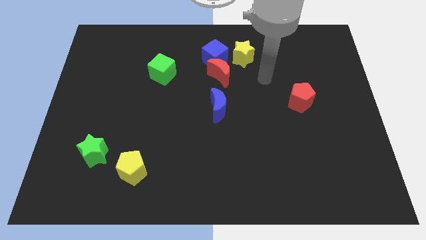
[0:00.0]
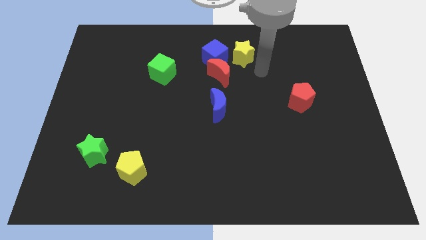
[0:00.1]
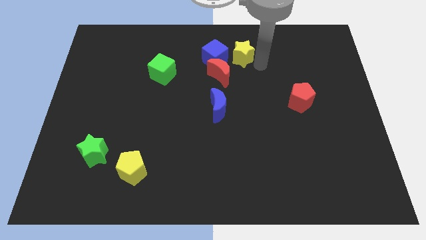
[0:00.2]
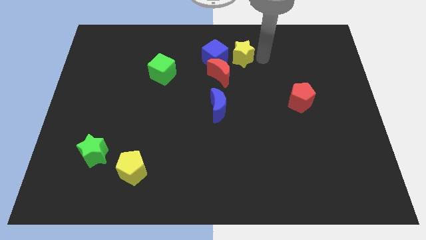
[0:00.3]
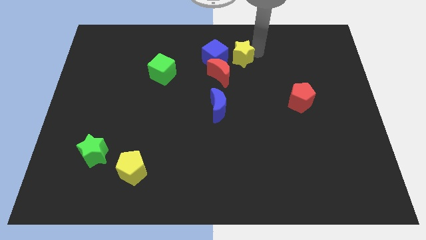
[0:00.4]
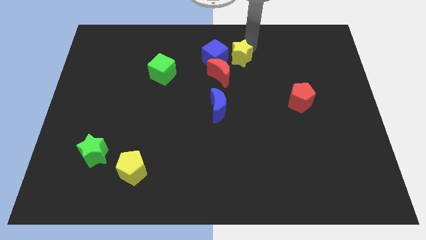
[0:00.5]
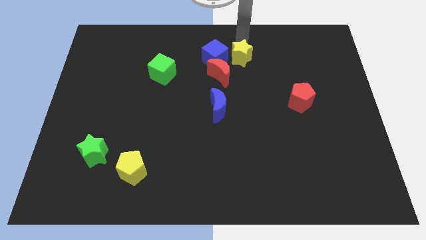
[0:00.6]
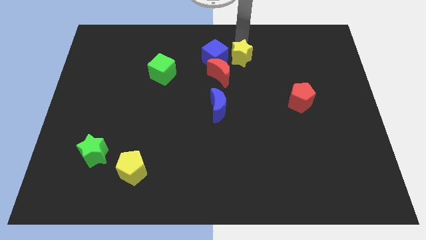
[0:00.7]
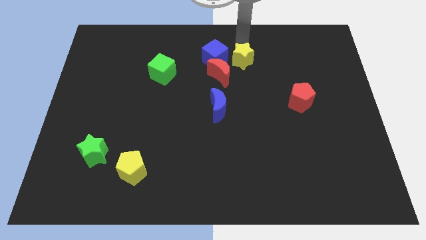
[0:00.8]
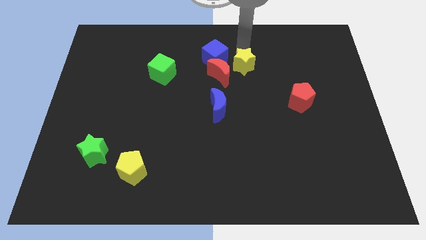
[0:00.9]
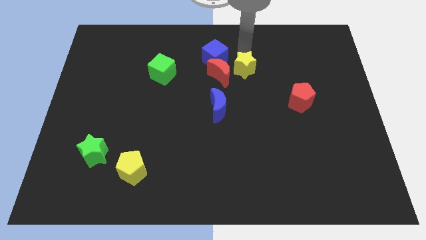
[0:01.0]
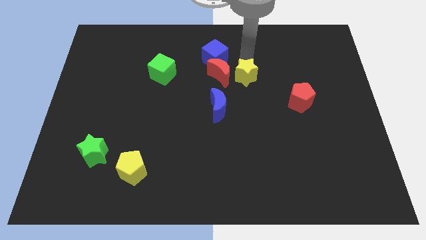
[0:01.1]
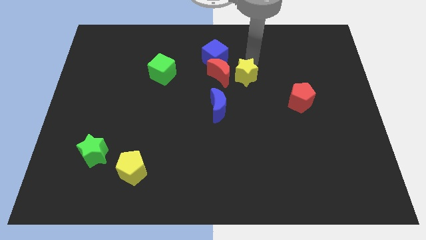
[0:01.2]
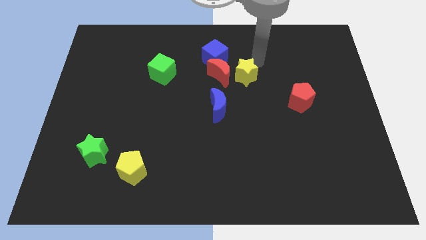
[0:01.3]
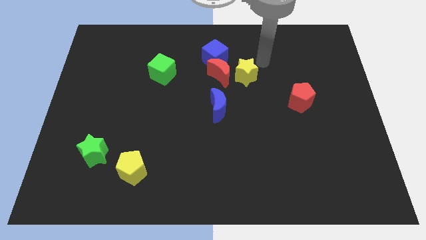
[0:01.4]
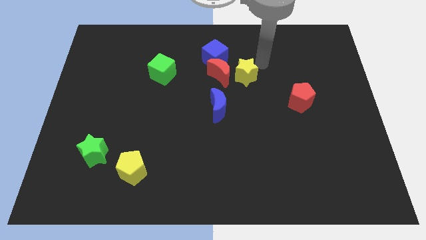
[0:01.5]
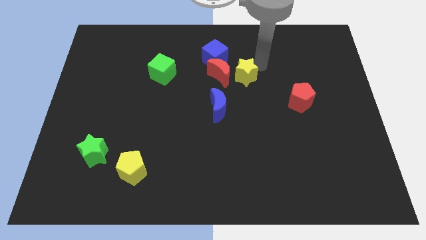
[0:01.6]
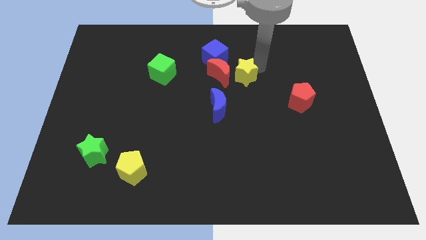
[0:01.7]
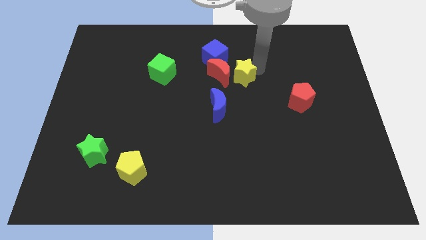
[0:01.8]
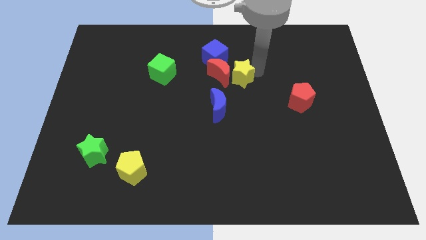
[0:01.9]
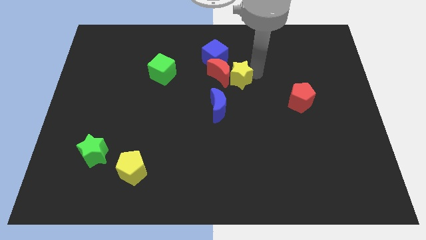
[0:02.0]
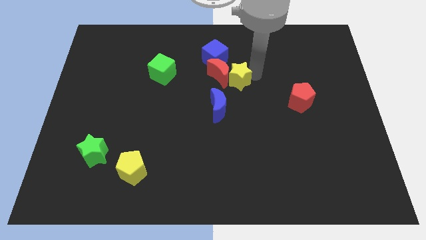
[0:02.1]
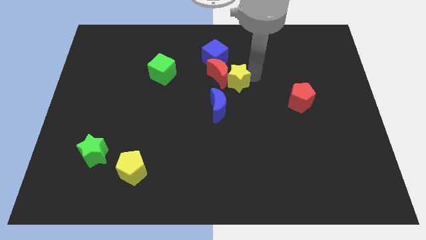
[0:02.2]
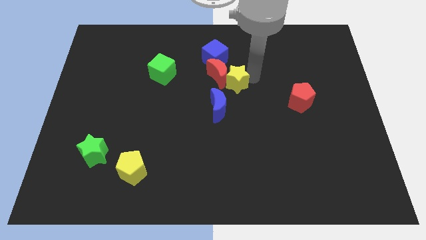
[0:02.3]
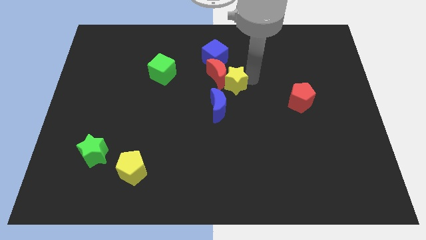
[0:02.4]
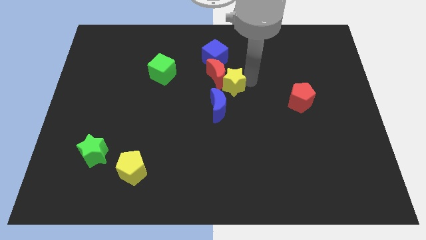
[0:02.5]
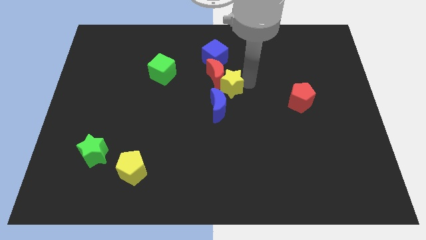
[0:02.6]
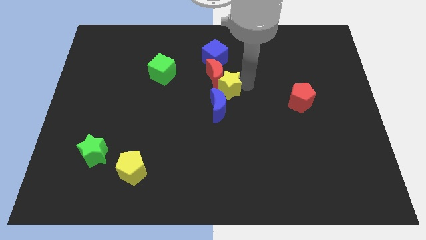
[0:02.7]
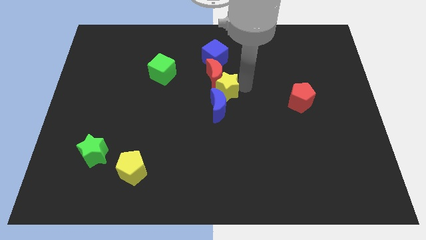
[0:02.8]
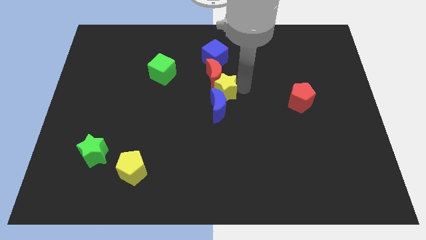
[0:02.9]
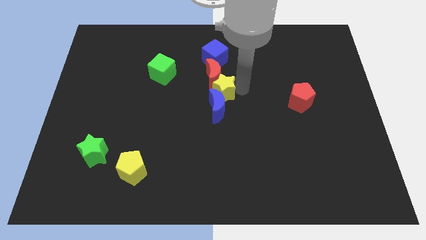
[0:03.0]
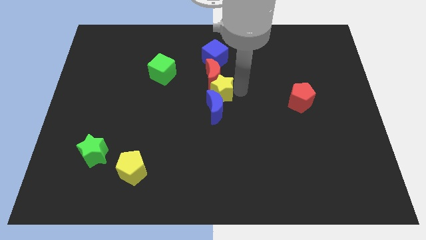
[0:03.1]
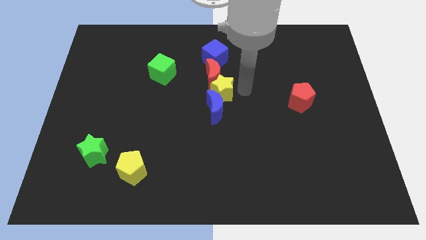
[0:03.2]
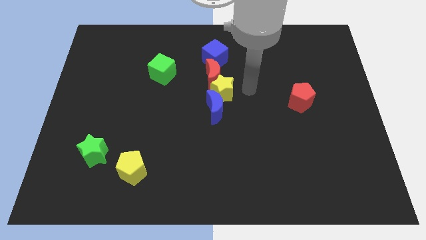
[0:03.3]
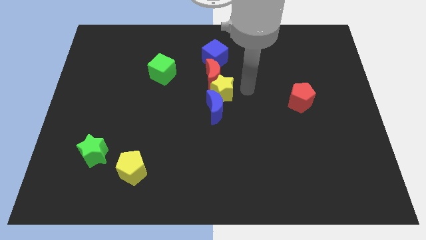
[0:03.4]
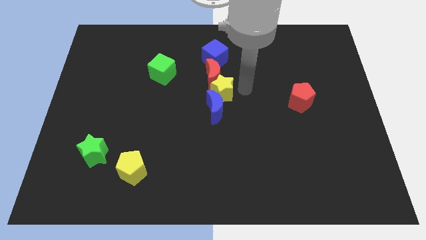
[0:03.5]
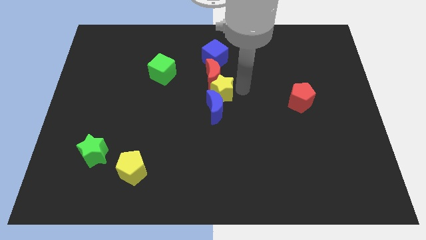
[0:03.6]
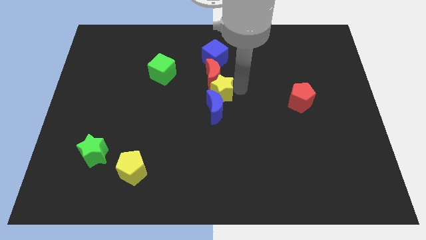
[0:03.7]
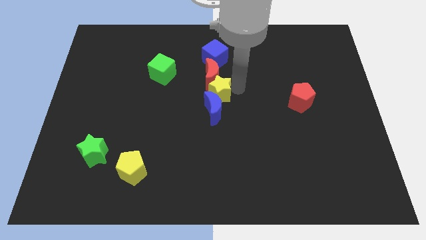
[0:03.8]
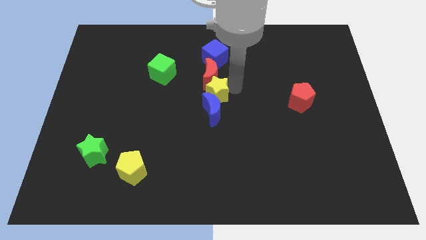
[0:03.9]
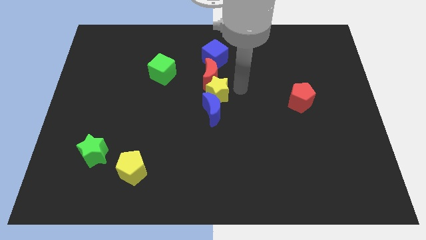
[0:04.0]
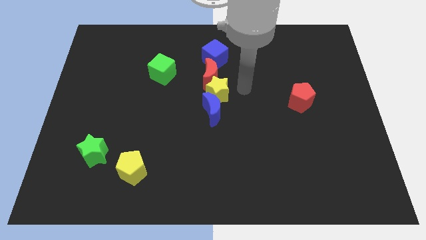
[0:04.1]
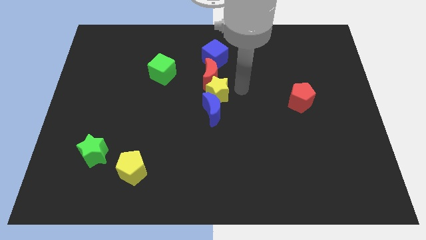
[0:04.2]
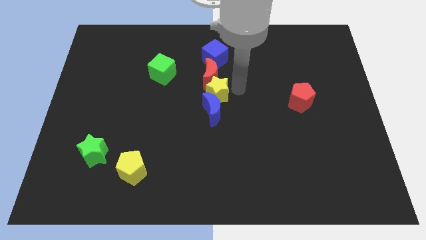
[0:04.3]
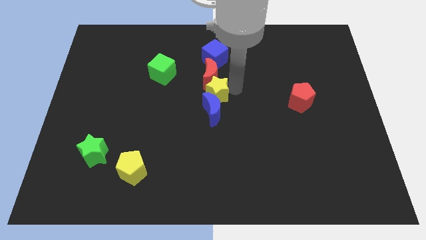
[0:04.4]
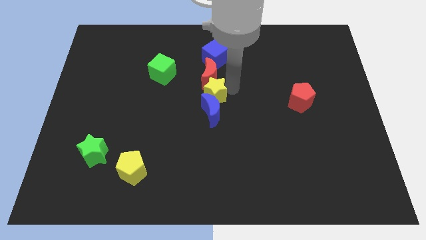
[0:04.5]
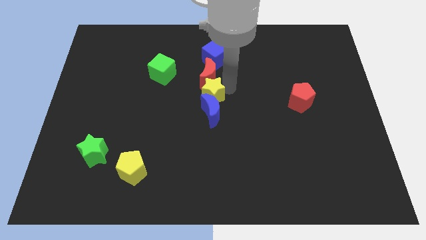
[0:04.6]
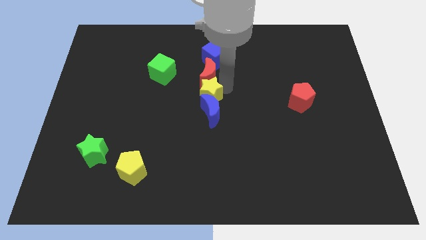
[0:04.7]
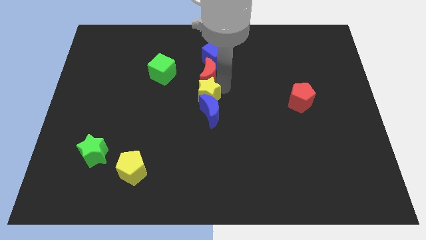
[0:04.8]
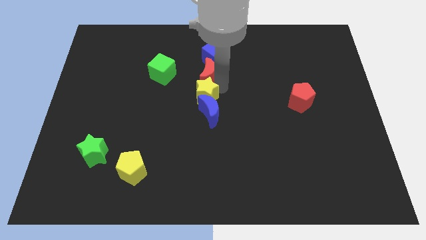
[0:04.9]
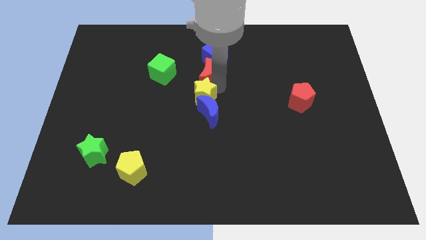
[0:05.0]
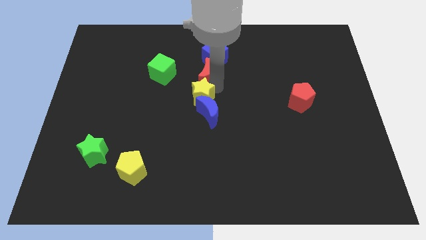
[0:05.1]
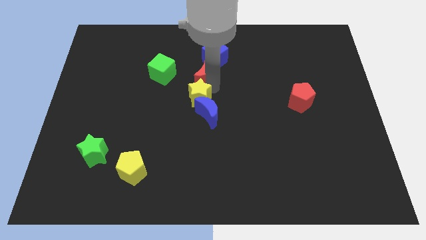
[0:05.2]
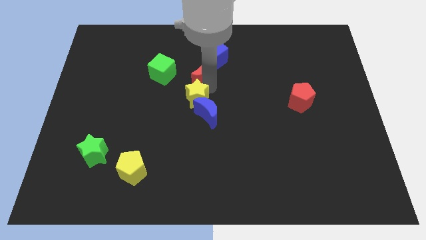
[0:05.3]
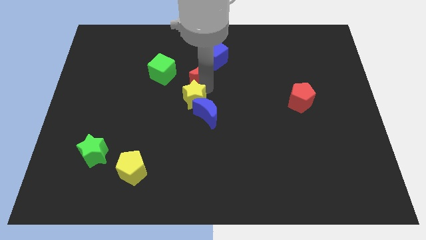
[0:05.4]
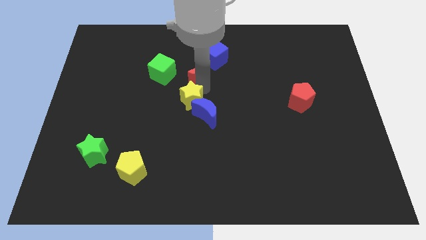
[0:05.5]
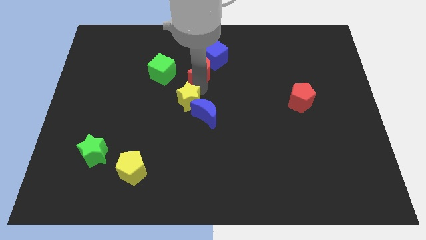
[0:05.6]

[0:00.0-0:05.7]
move the yellow star downwards and left

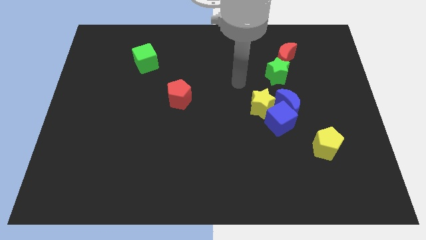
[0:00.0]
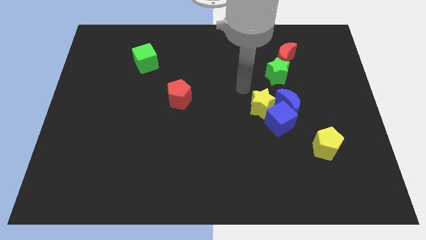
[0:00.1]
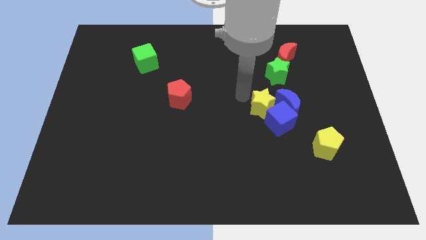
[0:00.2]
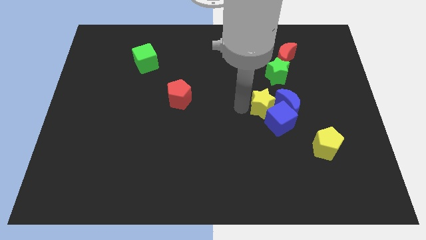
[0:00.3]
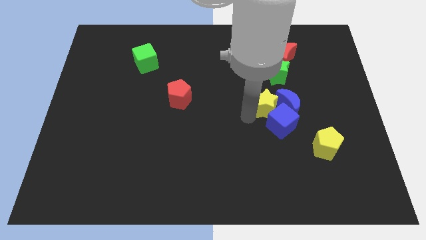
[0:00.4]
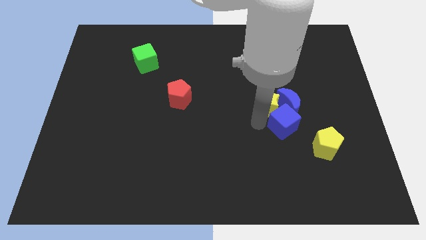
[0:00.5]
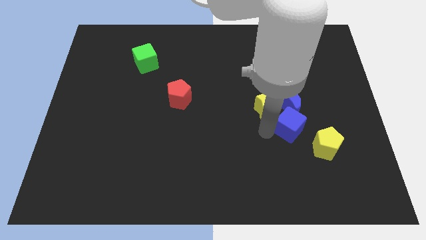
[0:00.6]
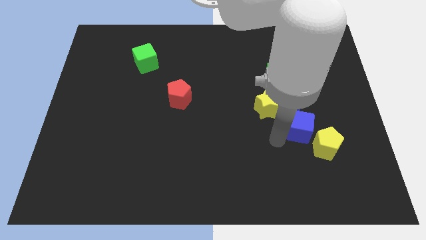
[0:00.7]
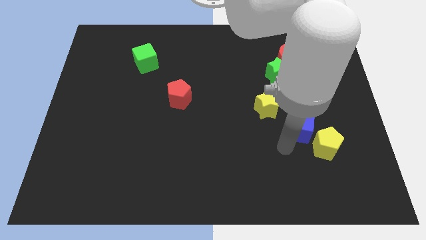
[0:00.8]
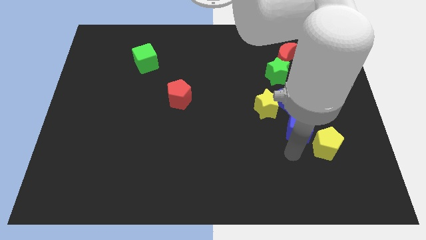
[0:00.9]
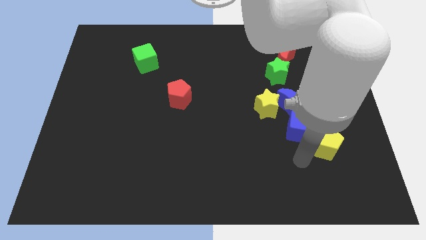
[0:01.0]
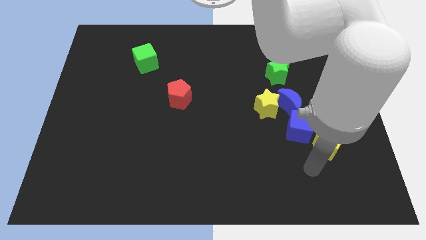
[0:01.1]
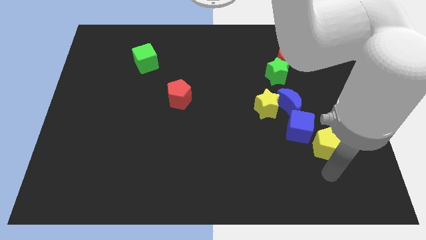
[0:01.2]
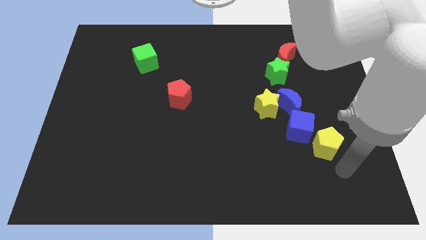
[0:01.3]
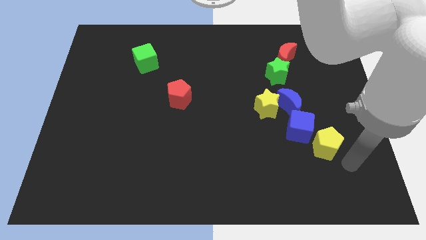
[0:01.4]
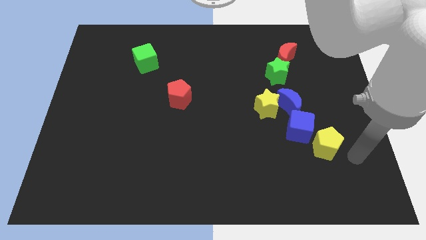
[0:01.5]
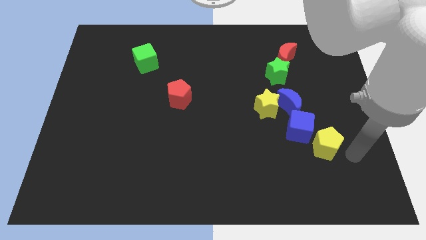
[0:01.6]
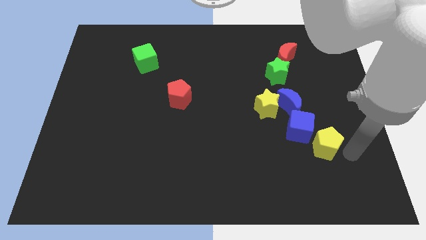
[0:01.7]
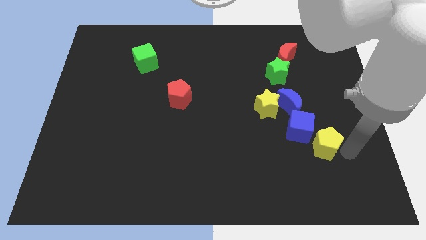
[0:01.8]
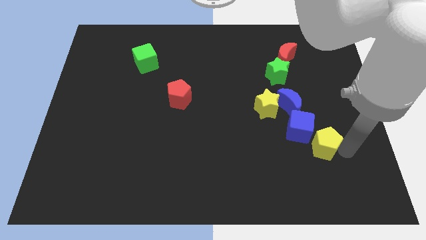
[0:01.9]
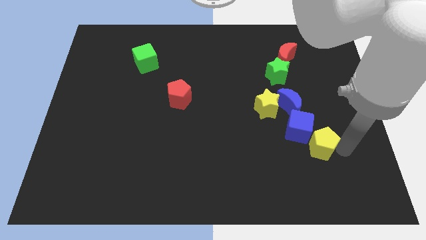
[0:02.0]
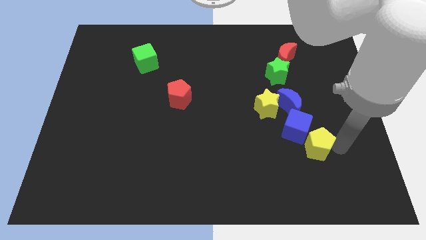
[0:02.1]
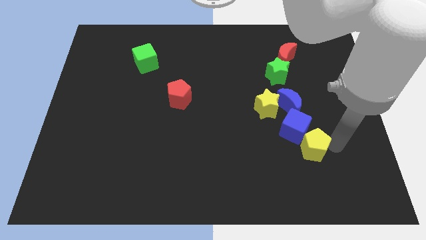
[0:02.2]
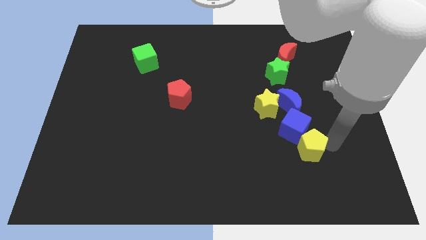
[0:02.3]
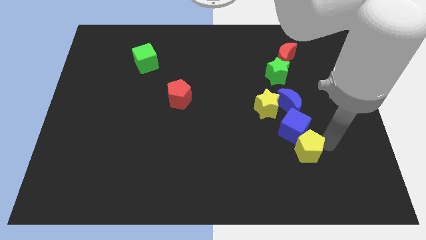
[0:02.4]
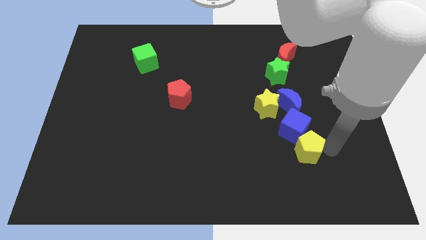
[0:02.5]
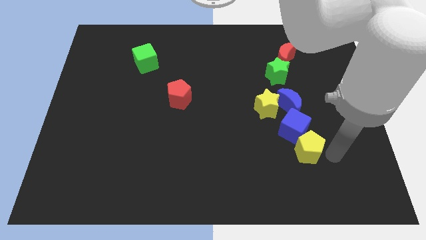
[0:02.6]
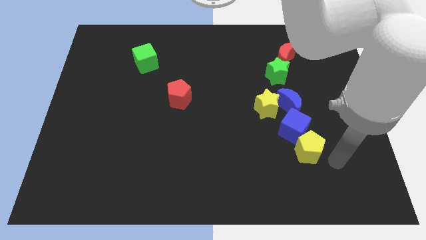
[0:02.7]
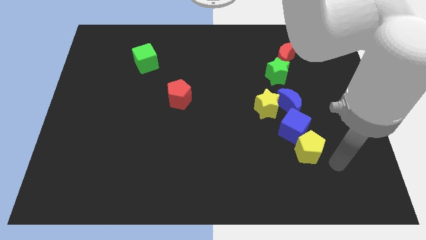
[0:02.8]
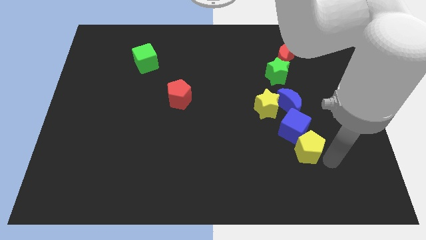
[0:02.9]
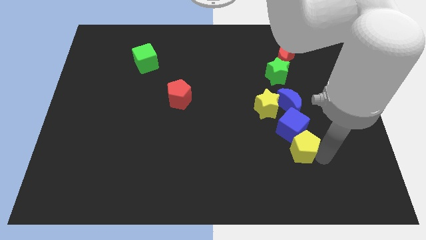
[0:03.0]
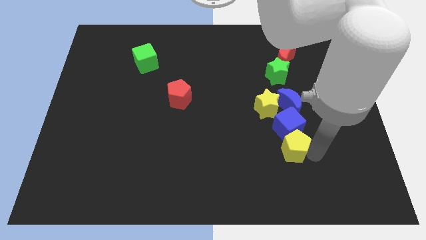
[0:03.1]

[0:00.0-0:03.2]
slightly slide the yellow pentagon to the left
